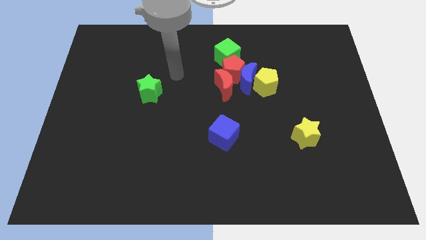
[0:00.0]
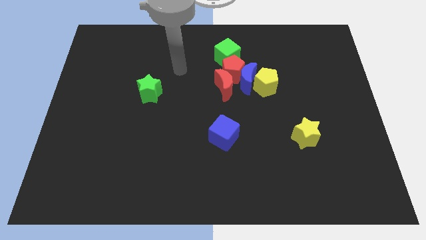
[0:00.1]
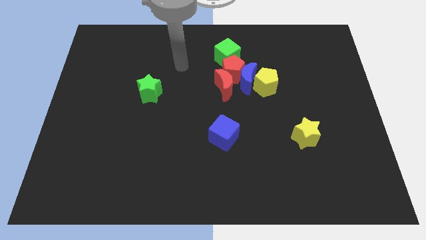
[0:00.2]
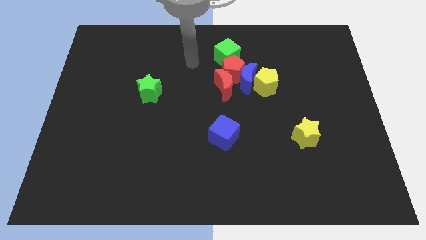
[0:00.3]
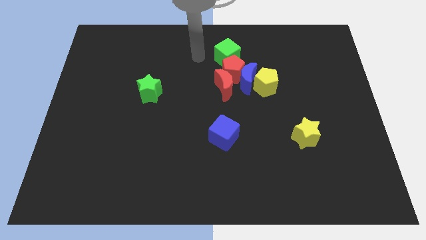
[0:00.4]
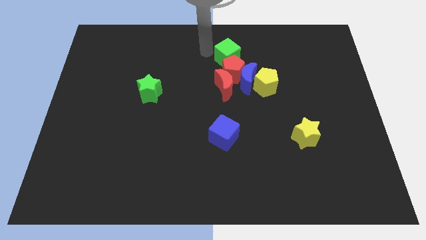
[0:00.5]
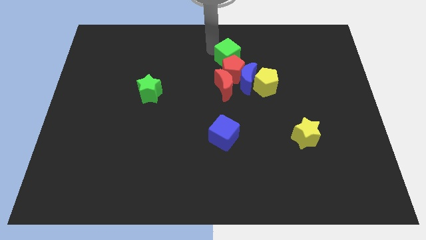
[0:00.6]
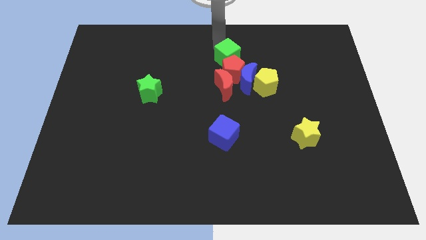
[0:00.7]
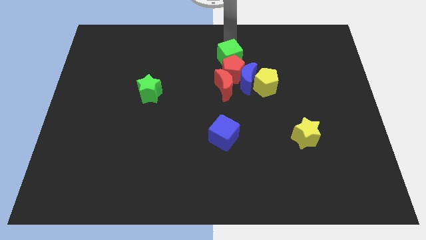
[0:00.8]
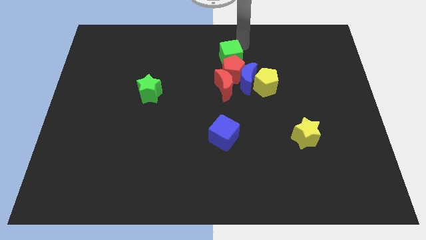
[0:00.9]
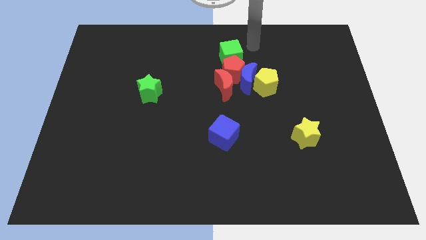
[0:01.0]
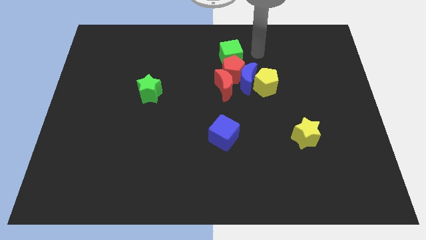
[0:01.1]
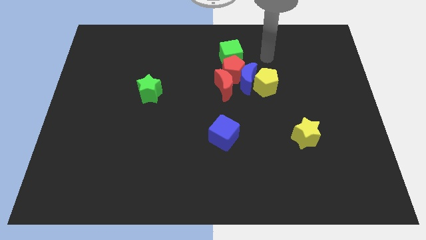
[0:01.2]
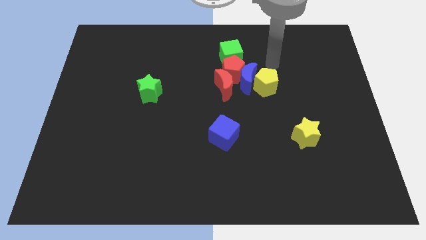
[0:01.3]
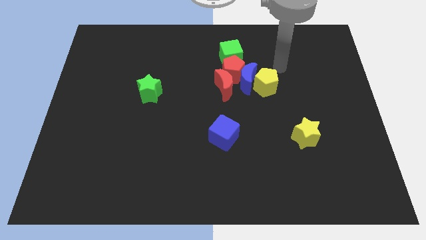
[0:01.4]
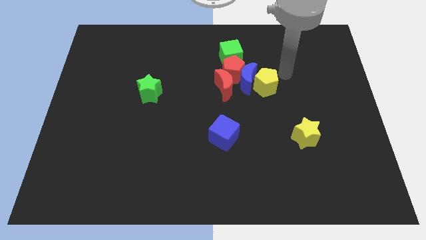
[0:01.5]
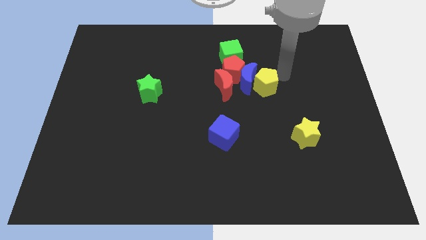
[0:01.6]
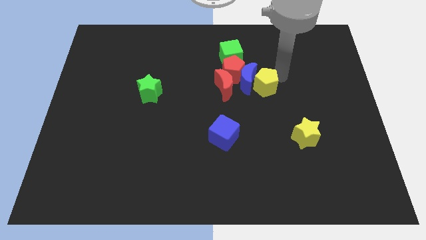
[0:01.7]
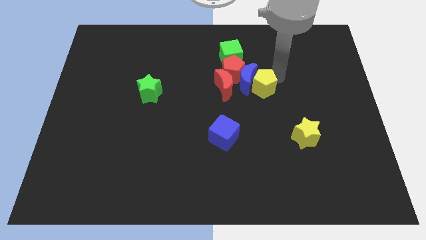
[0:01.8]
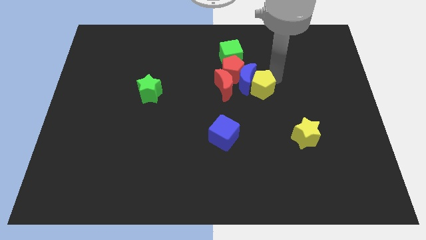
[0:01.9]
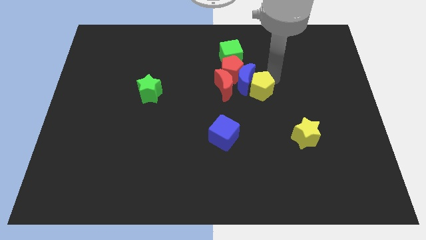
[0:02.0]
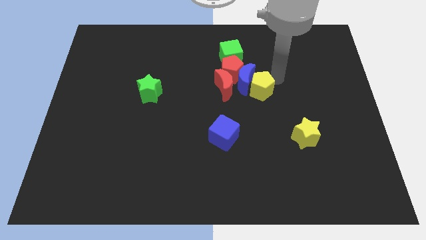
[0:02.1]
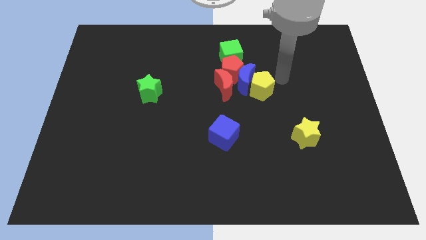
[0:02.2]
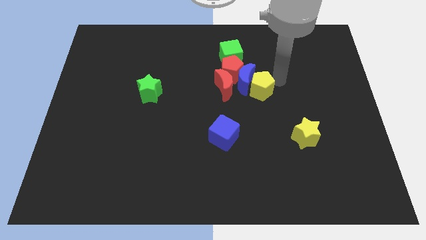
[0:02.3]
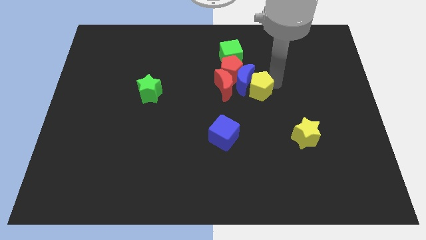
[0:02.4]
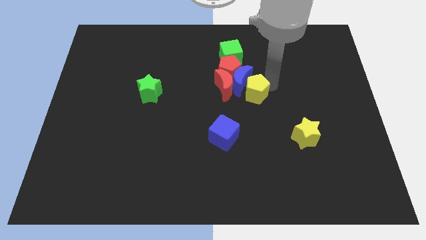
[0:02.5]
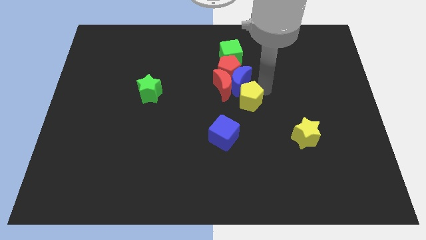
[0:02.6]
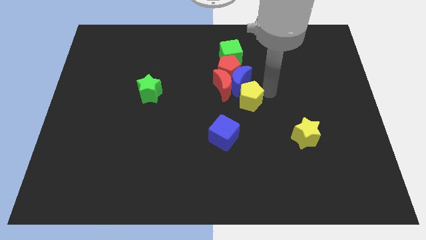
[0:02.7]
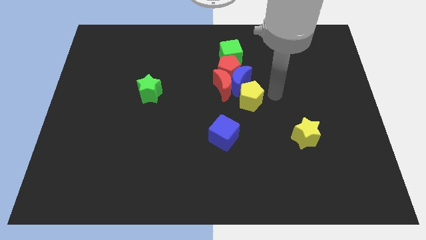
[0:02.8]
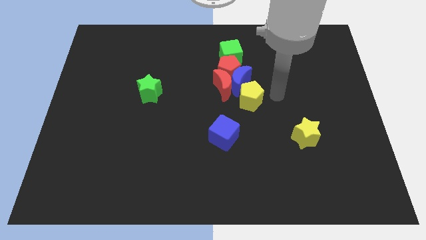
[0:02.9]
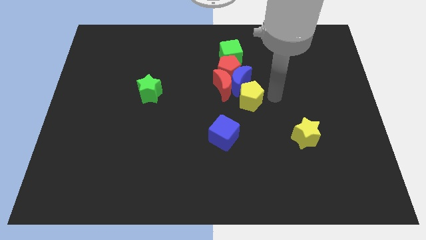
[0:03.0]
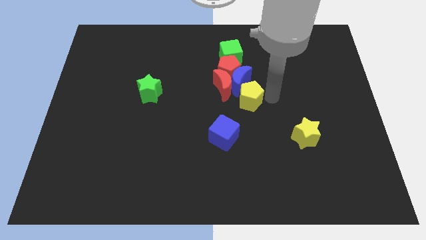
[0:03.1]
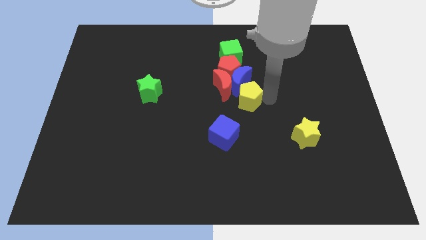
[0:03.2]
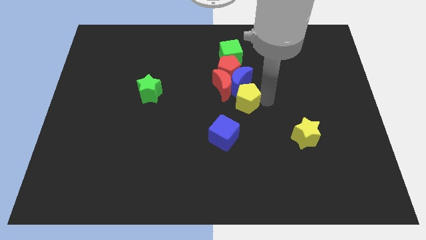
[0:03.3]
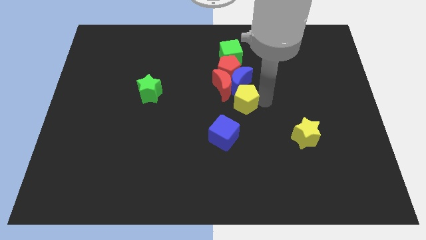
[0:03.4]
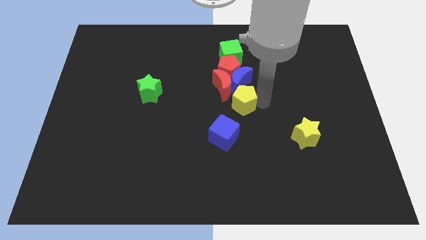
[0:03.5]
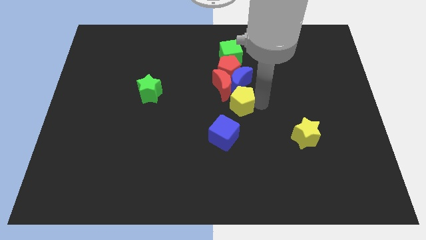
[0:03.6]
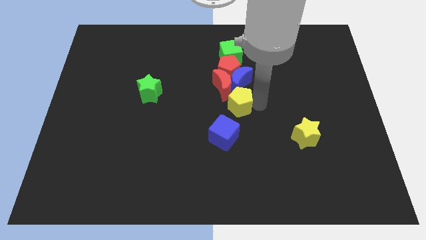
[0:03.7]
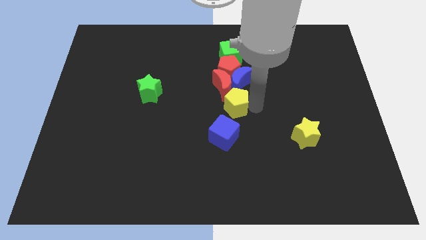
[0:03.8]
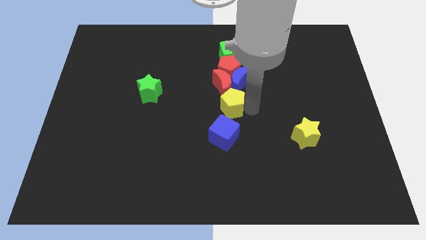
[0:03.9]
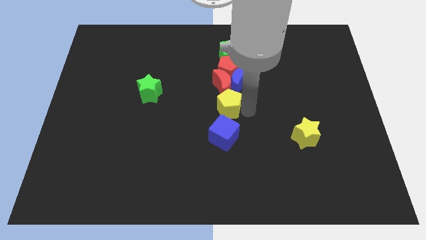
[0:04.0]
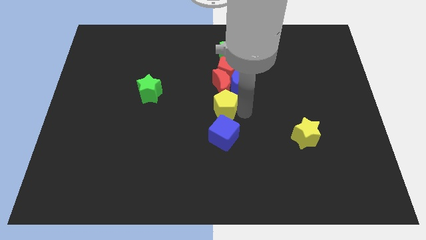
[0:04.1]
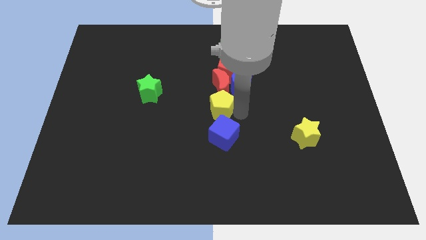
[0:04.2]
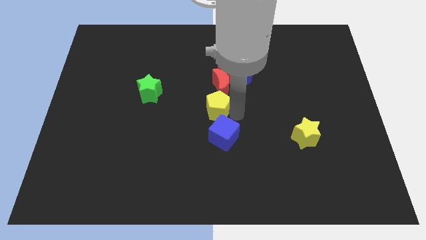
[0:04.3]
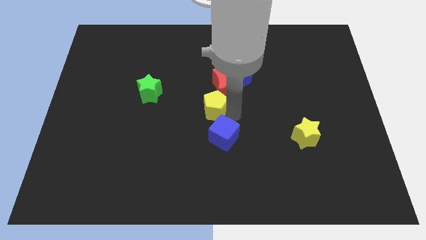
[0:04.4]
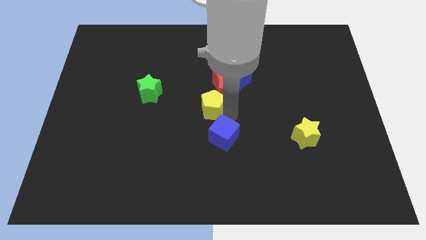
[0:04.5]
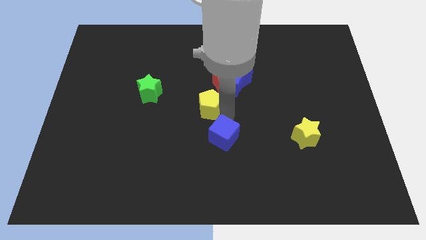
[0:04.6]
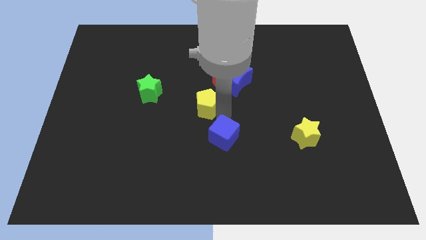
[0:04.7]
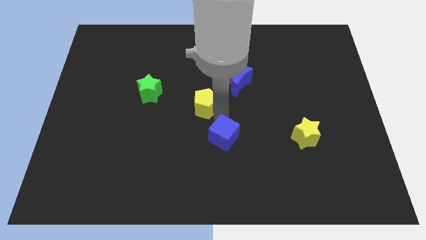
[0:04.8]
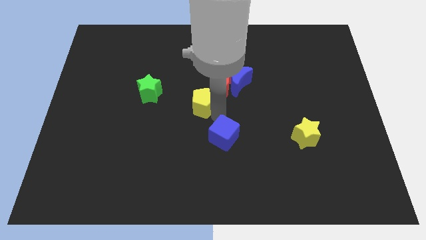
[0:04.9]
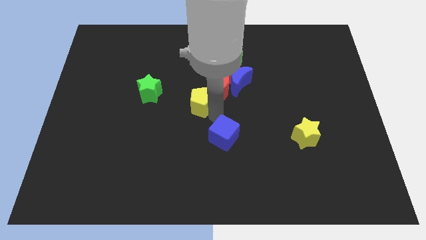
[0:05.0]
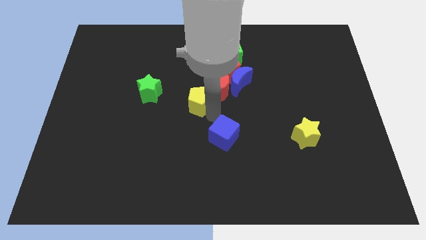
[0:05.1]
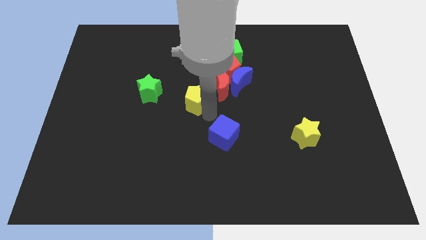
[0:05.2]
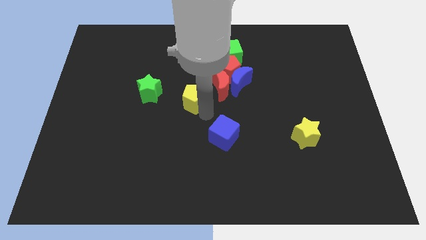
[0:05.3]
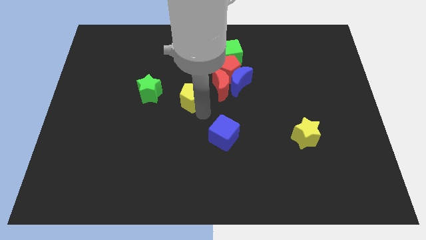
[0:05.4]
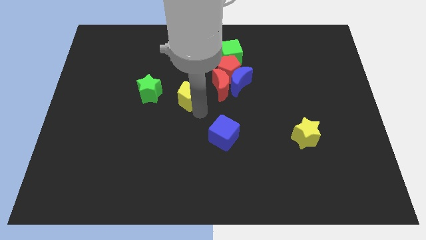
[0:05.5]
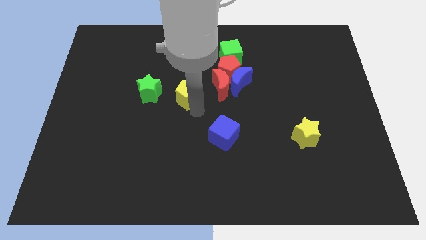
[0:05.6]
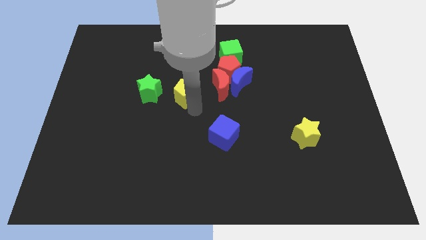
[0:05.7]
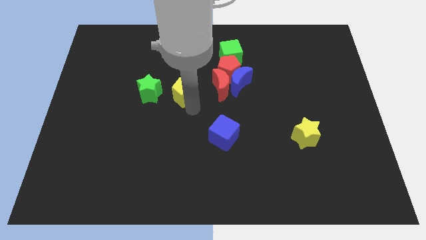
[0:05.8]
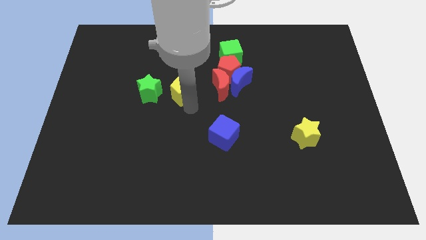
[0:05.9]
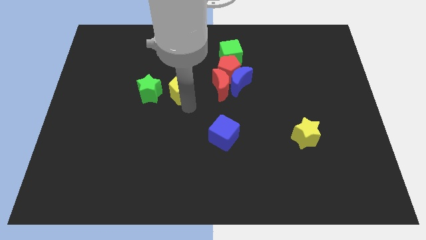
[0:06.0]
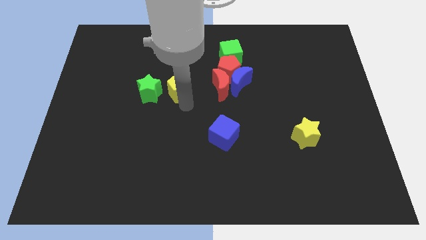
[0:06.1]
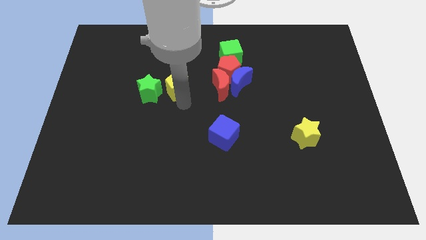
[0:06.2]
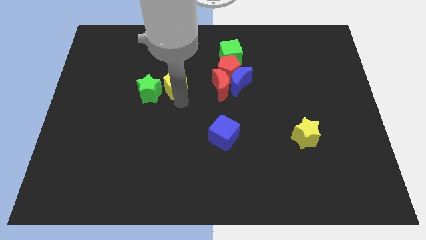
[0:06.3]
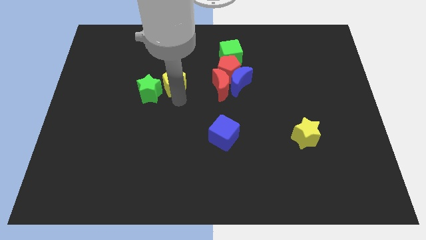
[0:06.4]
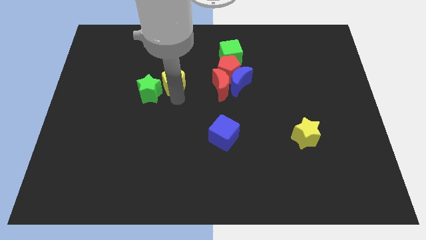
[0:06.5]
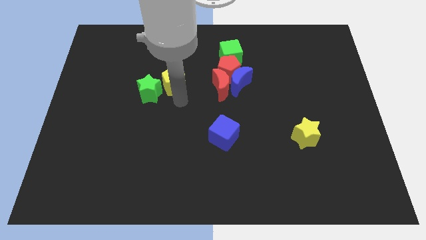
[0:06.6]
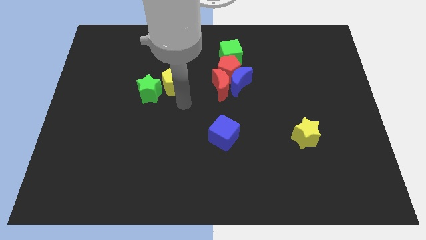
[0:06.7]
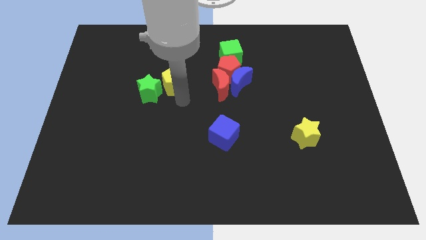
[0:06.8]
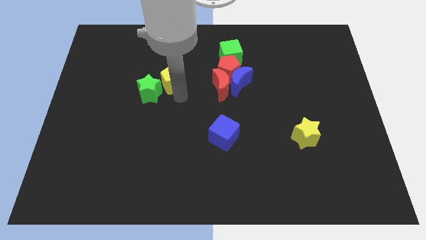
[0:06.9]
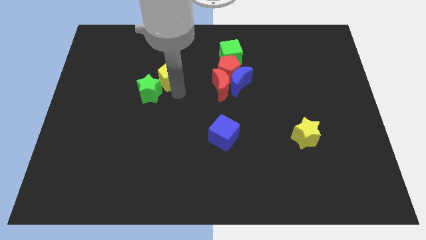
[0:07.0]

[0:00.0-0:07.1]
put the yellow pentagon to the top side of the green star

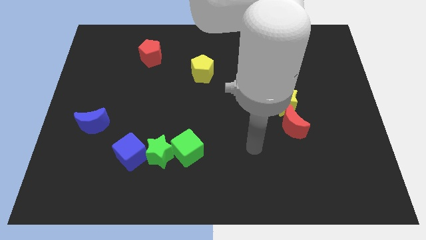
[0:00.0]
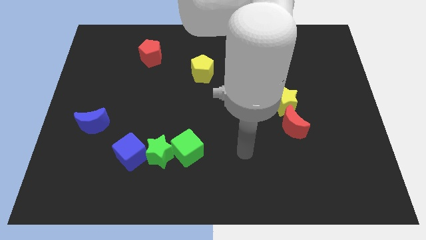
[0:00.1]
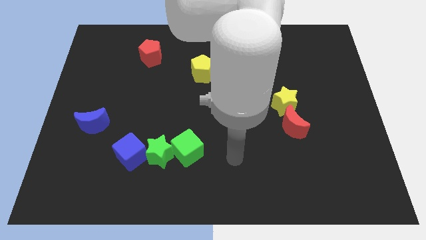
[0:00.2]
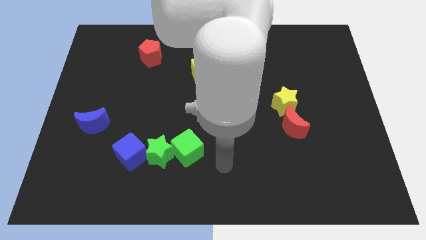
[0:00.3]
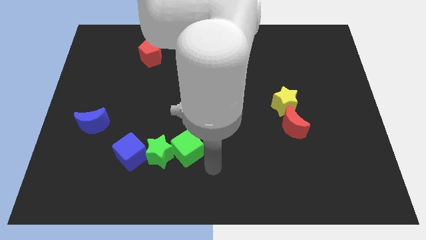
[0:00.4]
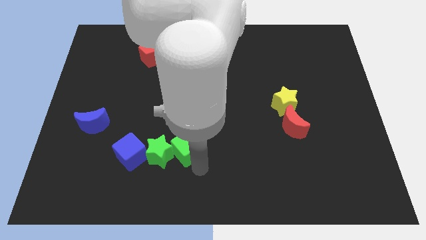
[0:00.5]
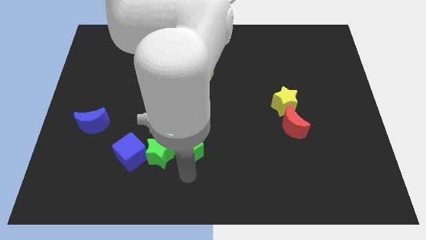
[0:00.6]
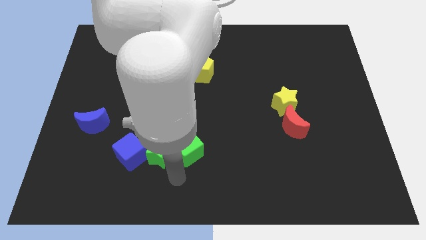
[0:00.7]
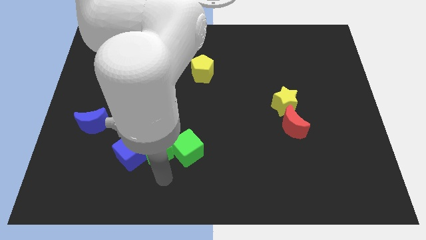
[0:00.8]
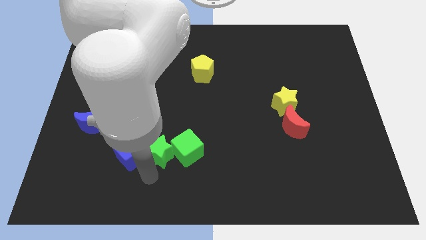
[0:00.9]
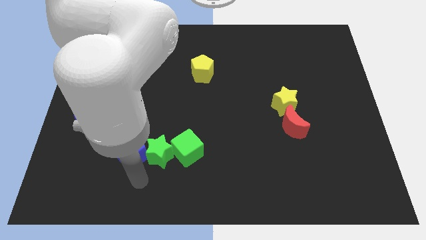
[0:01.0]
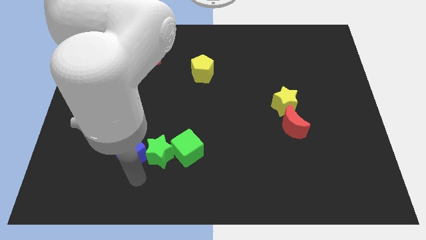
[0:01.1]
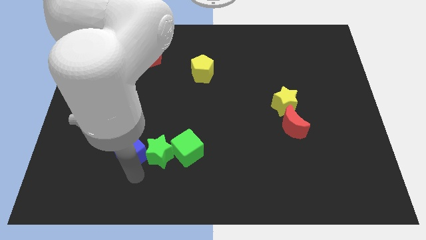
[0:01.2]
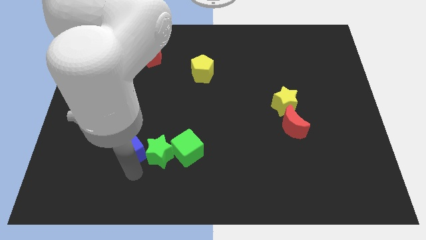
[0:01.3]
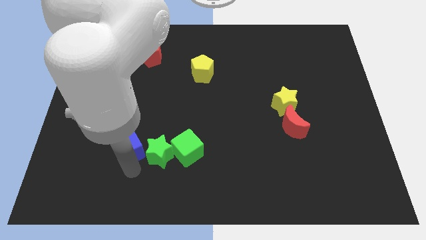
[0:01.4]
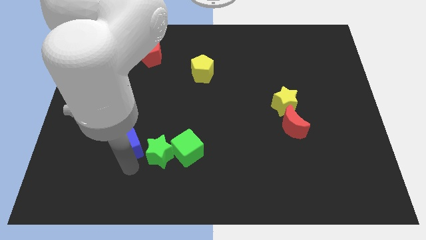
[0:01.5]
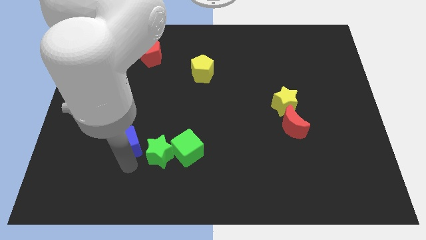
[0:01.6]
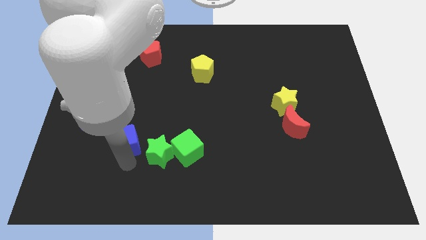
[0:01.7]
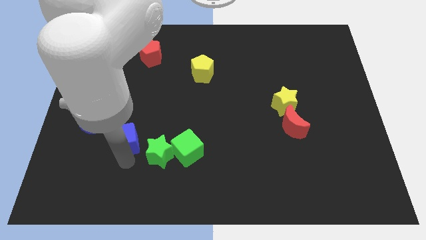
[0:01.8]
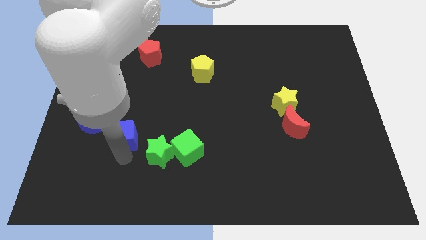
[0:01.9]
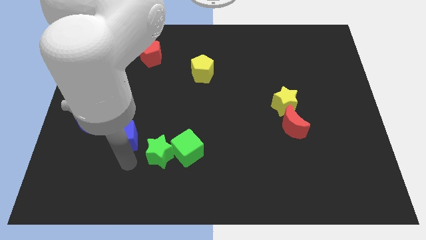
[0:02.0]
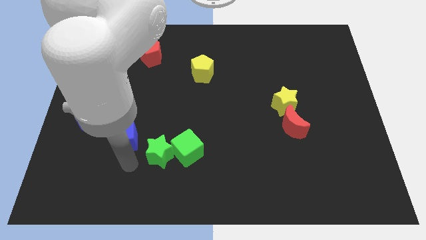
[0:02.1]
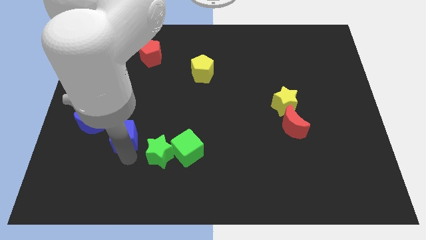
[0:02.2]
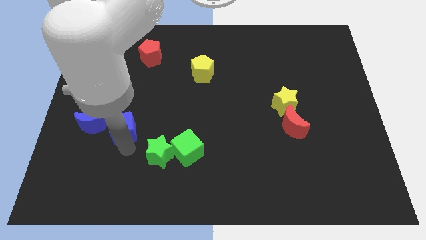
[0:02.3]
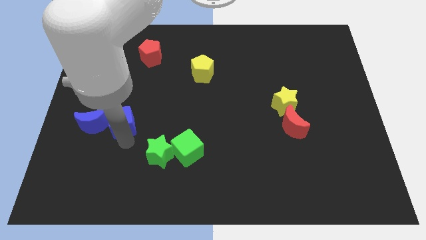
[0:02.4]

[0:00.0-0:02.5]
move the blue cube to the top right of the blue moon
